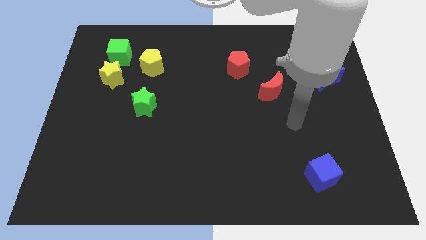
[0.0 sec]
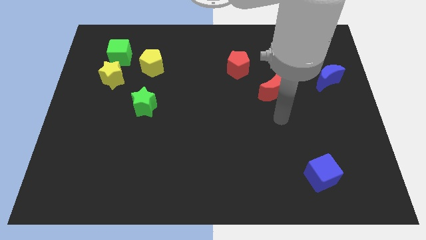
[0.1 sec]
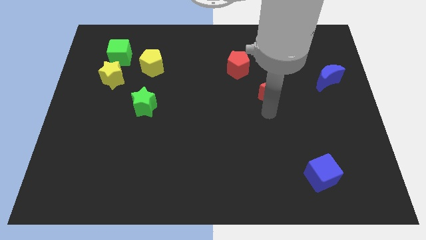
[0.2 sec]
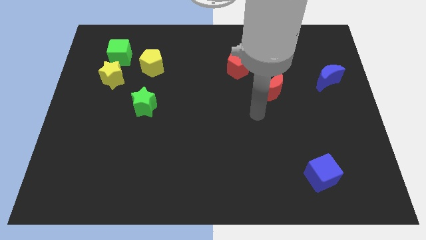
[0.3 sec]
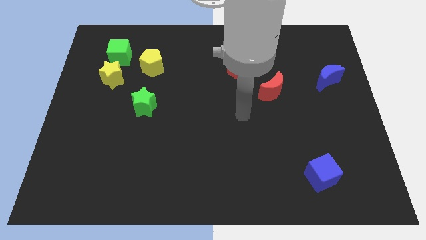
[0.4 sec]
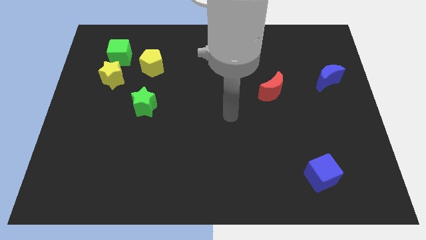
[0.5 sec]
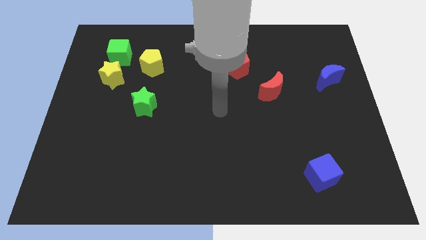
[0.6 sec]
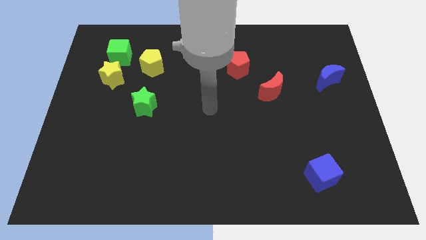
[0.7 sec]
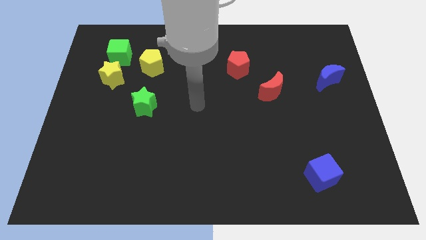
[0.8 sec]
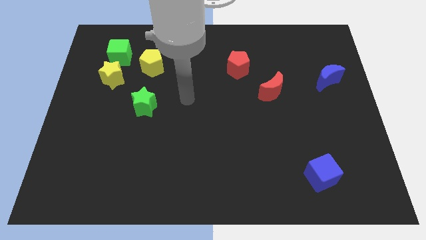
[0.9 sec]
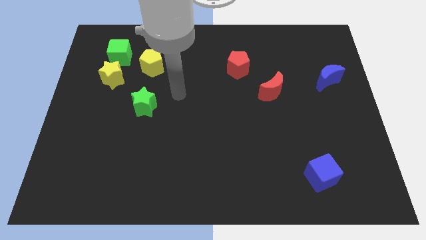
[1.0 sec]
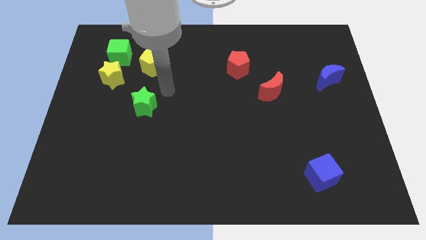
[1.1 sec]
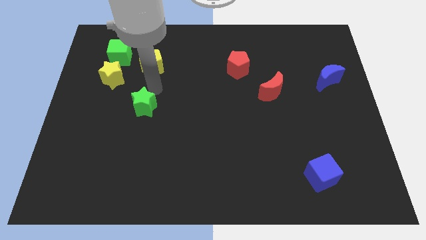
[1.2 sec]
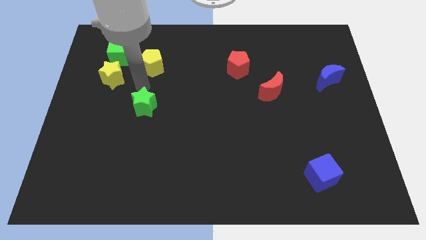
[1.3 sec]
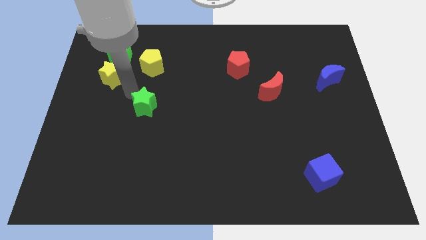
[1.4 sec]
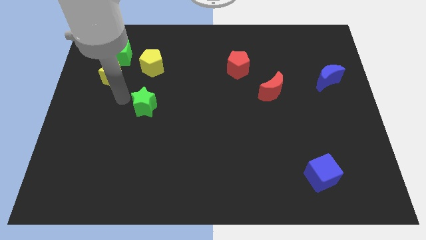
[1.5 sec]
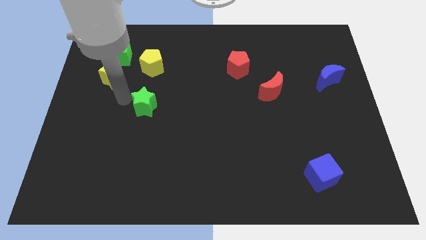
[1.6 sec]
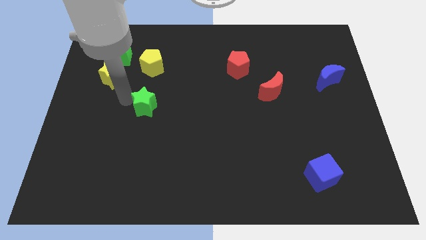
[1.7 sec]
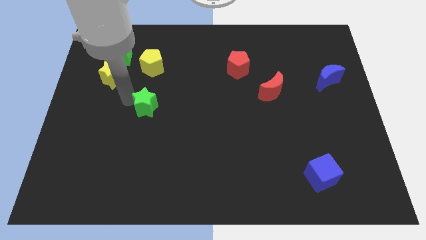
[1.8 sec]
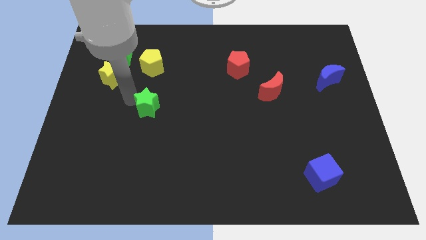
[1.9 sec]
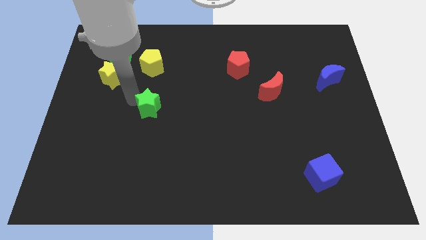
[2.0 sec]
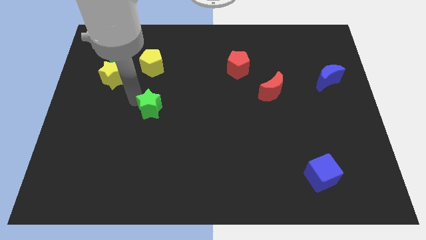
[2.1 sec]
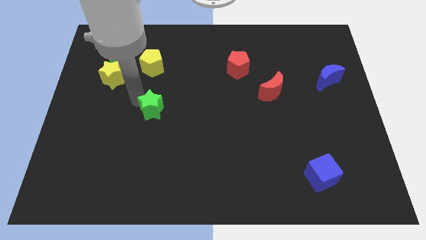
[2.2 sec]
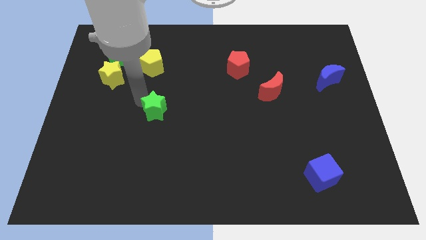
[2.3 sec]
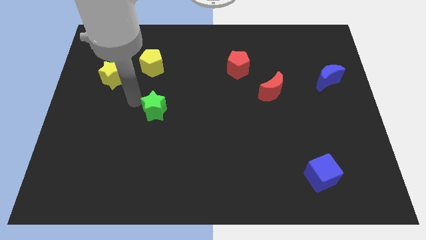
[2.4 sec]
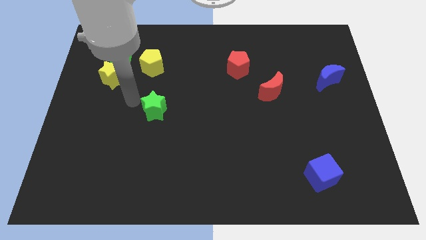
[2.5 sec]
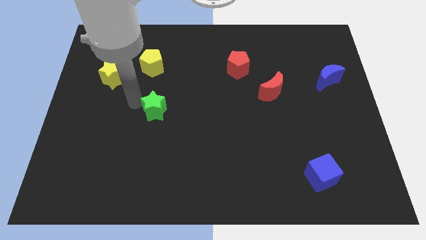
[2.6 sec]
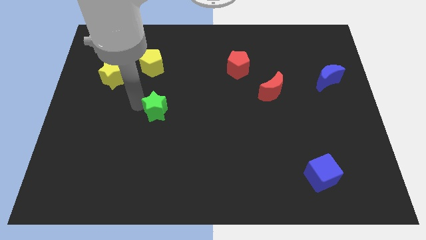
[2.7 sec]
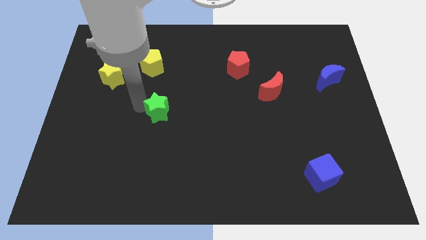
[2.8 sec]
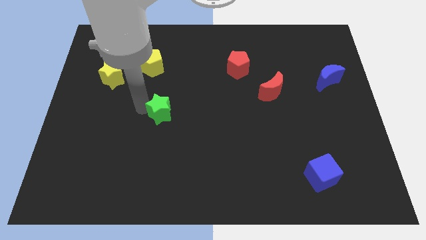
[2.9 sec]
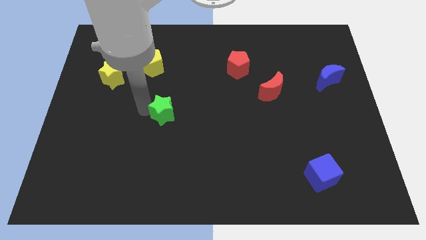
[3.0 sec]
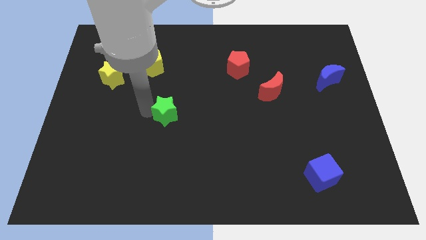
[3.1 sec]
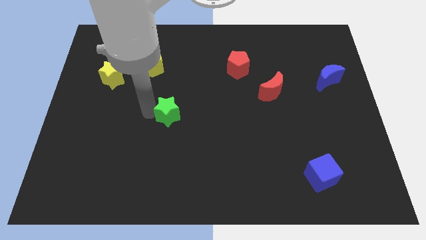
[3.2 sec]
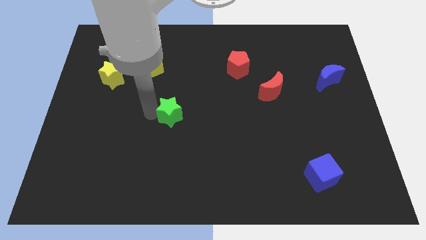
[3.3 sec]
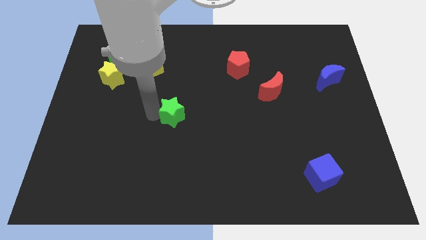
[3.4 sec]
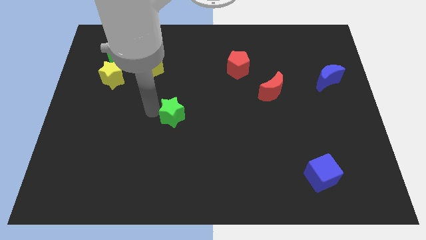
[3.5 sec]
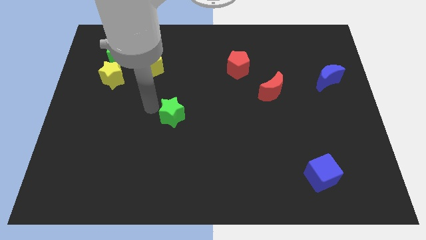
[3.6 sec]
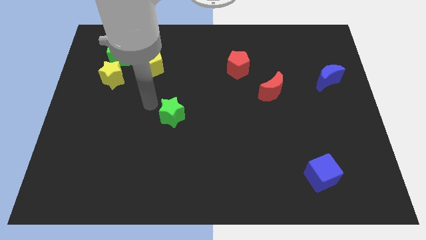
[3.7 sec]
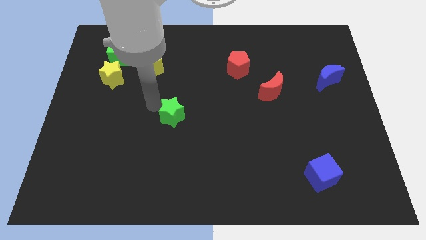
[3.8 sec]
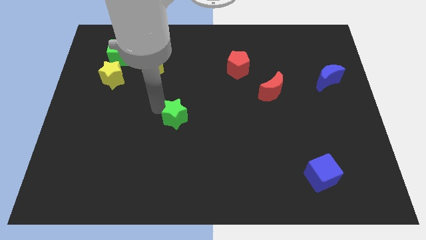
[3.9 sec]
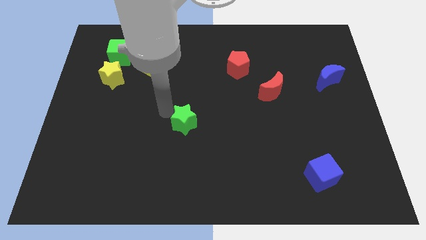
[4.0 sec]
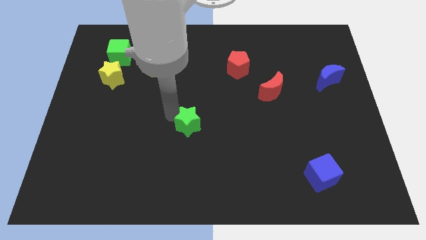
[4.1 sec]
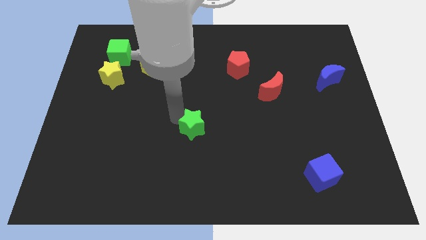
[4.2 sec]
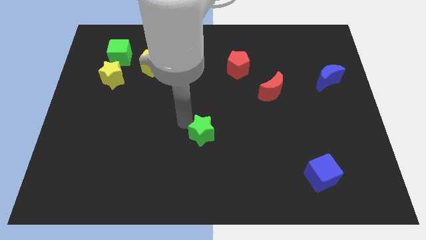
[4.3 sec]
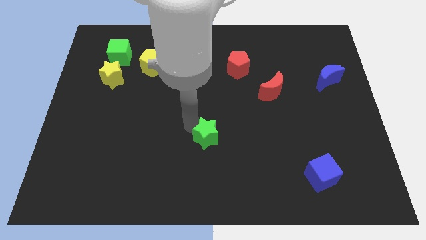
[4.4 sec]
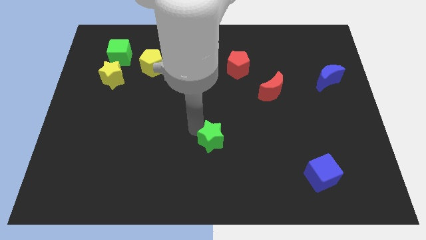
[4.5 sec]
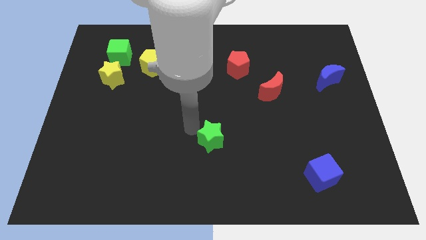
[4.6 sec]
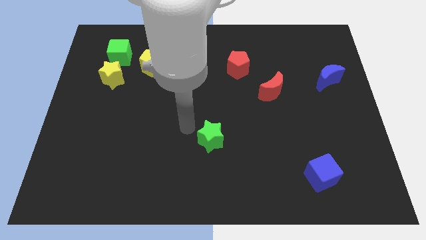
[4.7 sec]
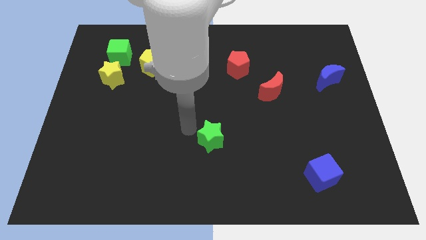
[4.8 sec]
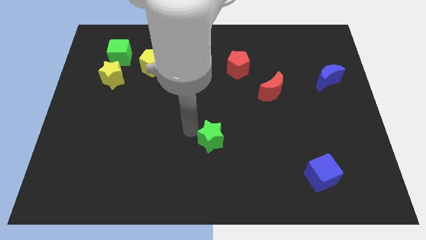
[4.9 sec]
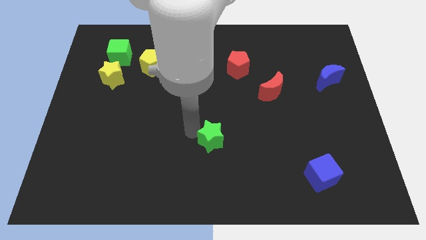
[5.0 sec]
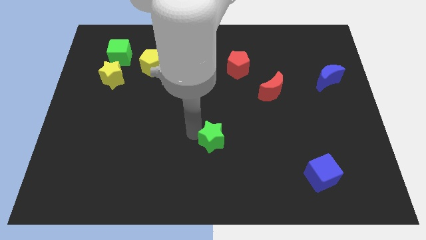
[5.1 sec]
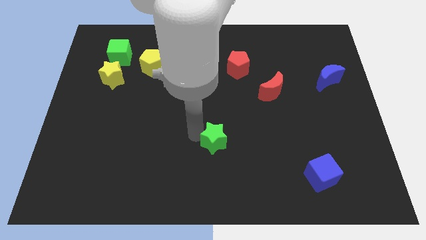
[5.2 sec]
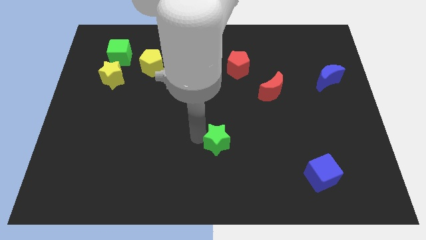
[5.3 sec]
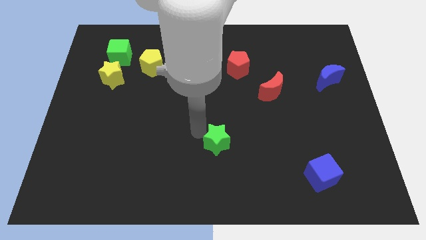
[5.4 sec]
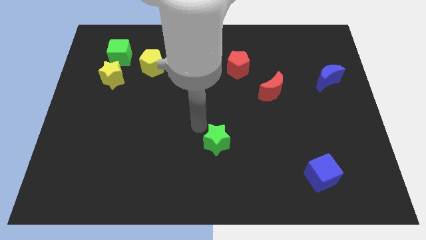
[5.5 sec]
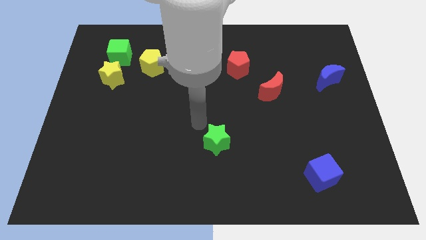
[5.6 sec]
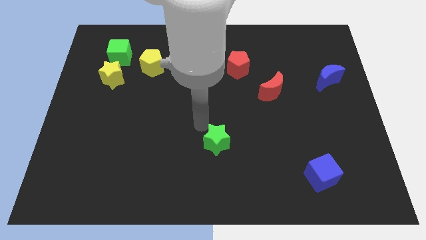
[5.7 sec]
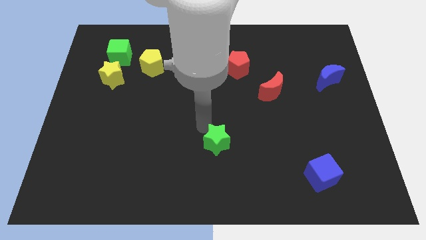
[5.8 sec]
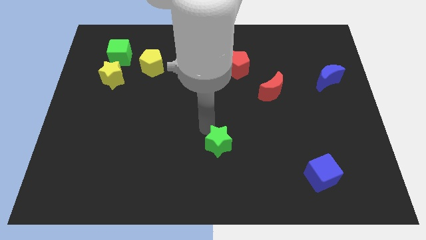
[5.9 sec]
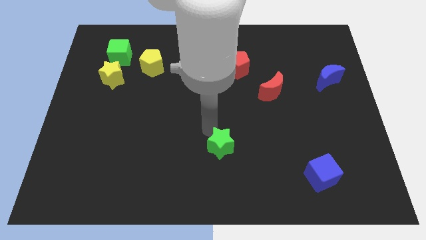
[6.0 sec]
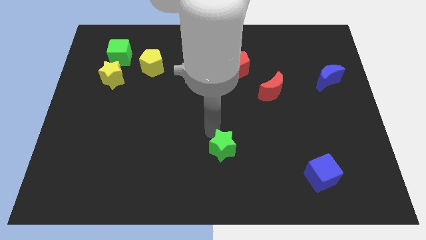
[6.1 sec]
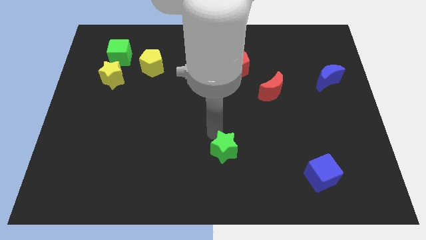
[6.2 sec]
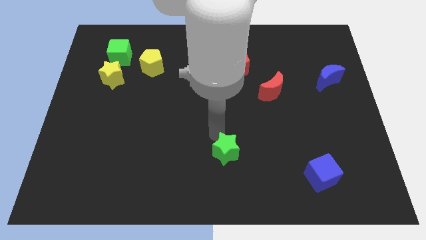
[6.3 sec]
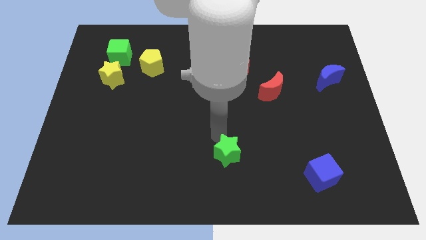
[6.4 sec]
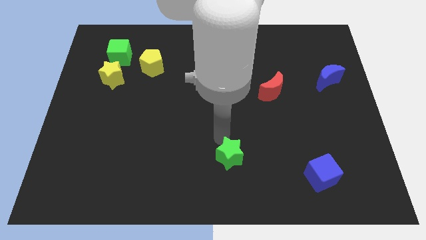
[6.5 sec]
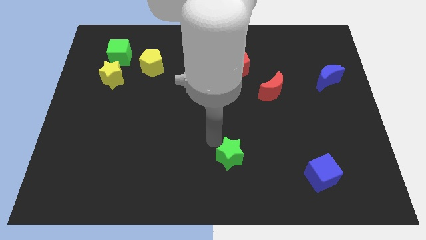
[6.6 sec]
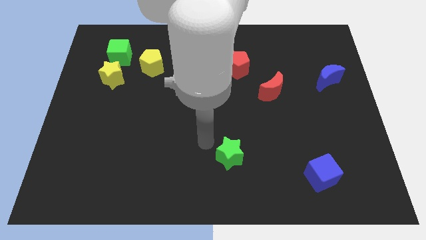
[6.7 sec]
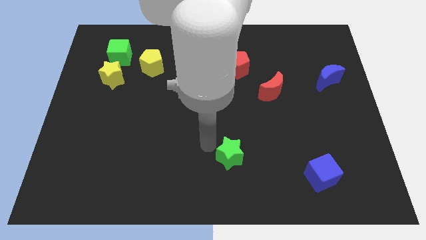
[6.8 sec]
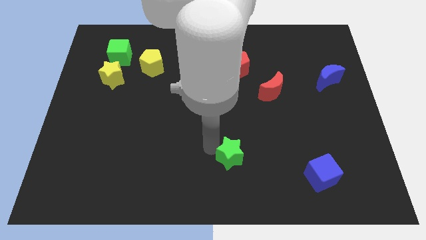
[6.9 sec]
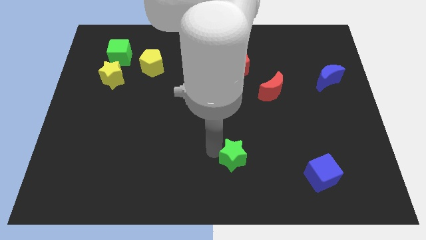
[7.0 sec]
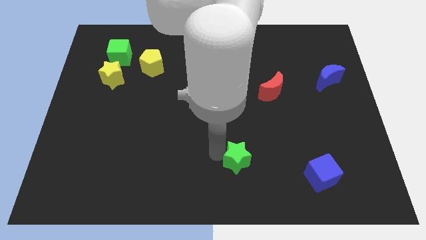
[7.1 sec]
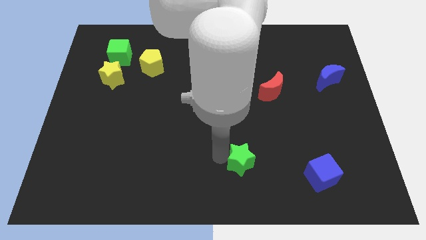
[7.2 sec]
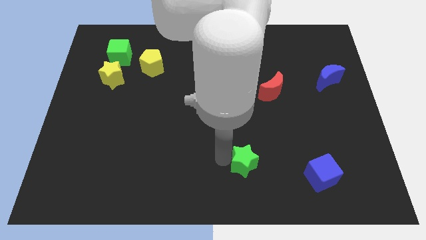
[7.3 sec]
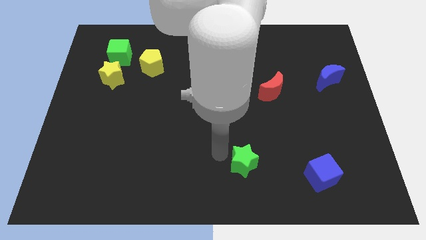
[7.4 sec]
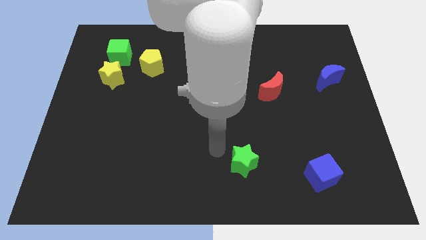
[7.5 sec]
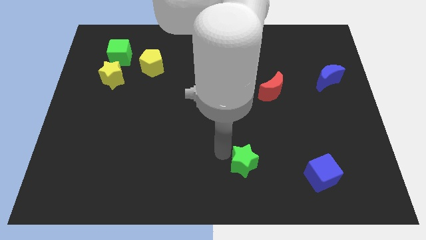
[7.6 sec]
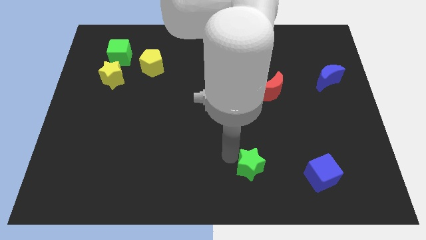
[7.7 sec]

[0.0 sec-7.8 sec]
push the green star just left of the blue cube
